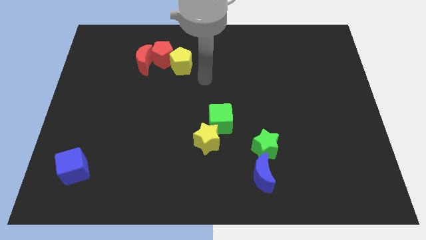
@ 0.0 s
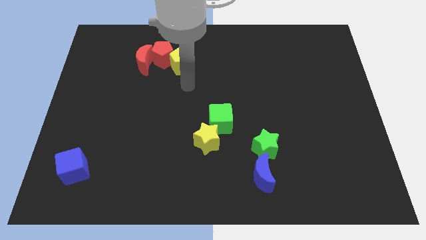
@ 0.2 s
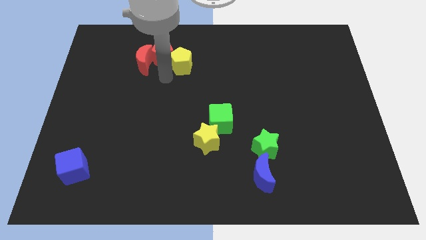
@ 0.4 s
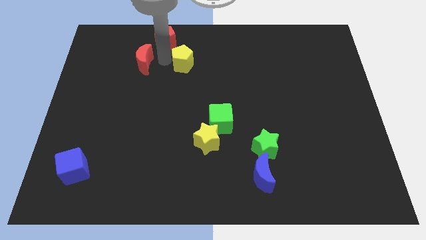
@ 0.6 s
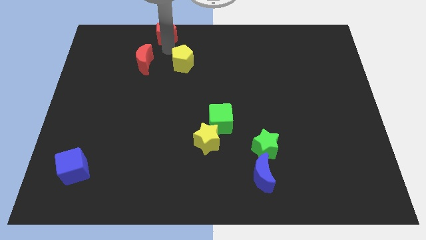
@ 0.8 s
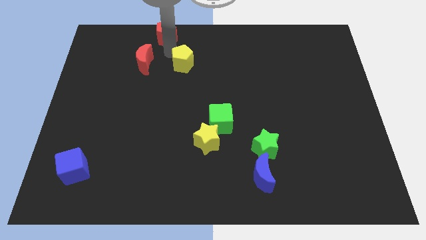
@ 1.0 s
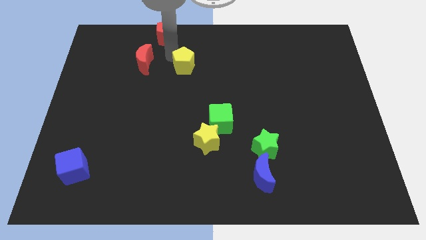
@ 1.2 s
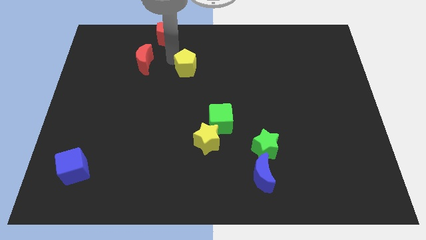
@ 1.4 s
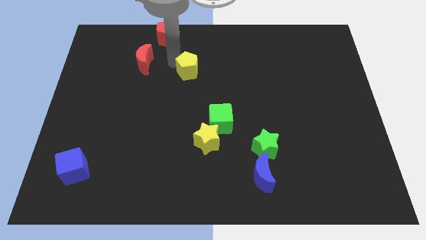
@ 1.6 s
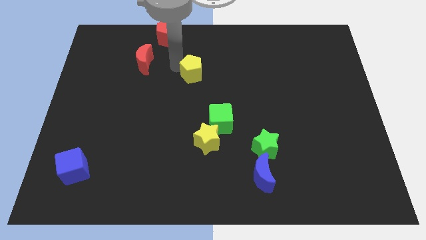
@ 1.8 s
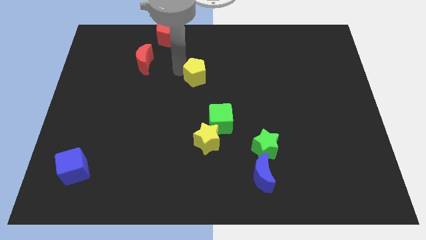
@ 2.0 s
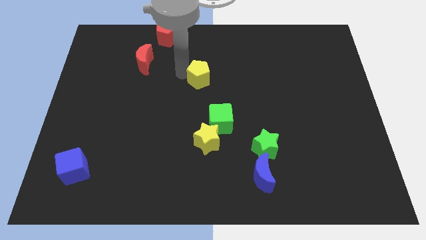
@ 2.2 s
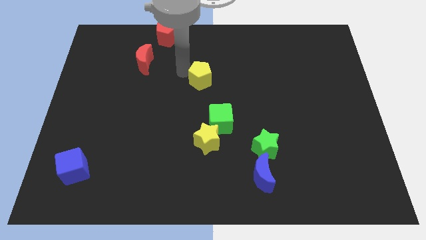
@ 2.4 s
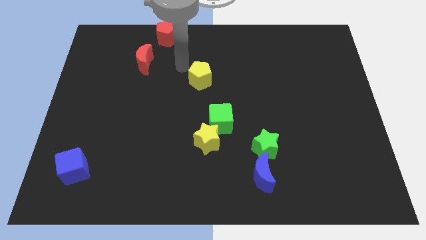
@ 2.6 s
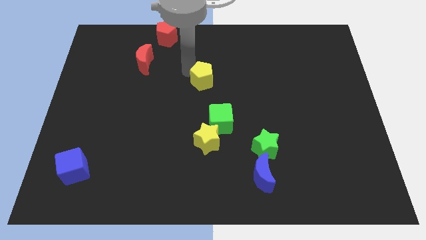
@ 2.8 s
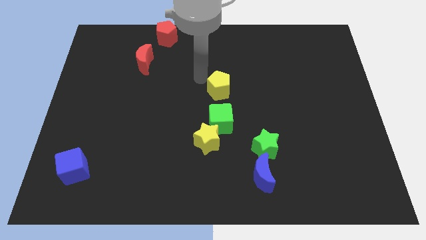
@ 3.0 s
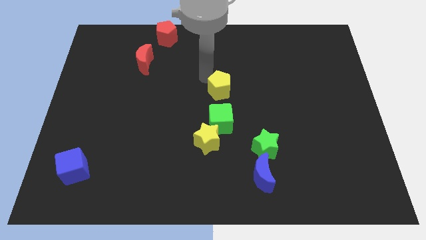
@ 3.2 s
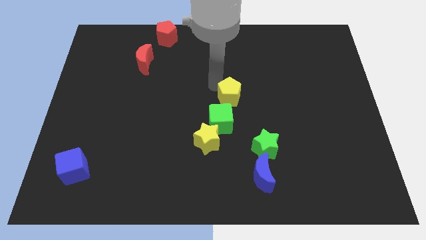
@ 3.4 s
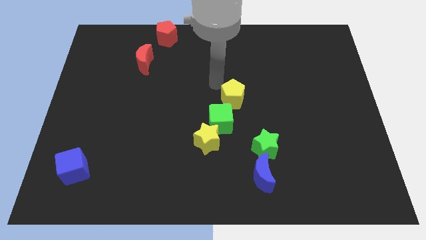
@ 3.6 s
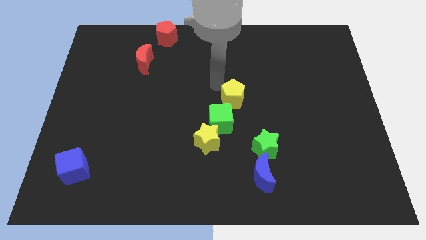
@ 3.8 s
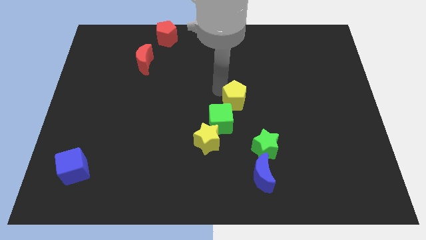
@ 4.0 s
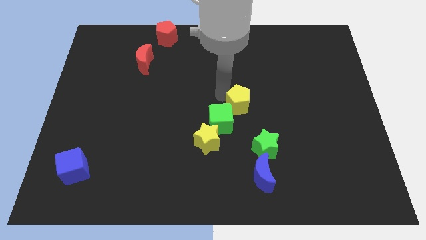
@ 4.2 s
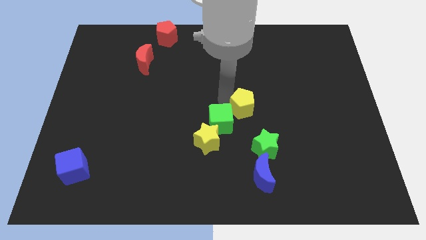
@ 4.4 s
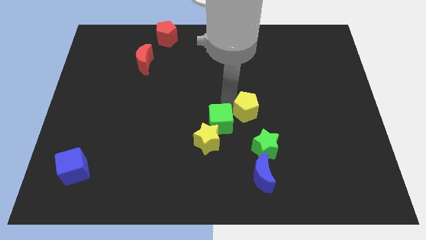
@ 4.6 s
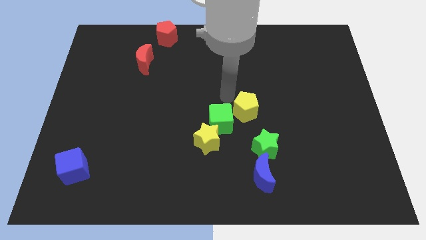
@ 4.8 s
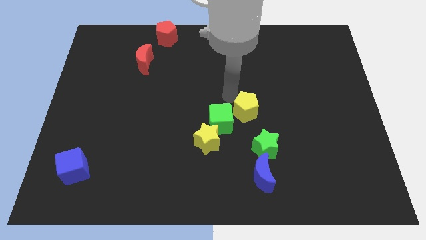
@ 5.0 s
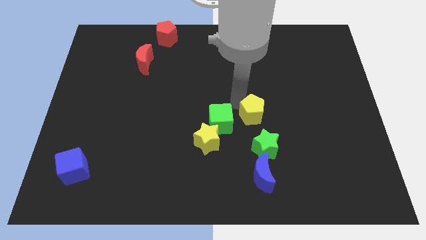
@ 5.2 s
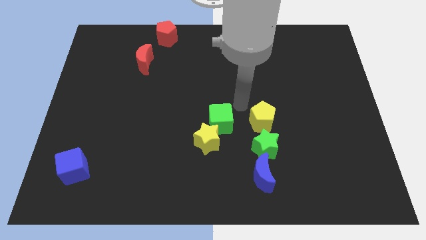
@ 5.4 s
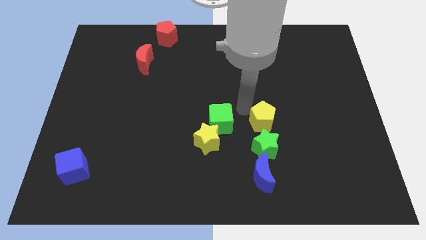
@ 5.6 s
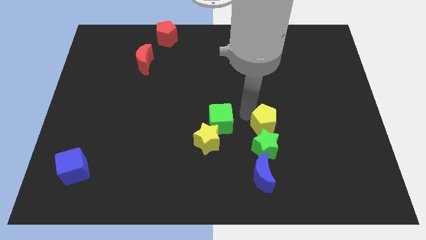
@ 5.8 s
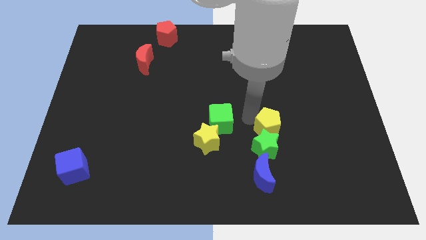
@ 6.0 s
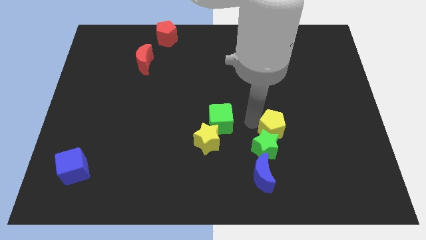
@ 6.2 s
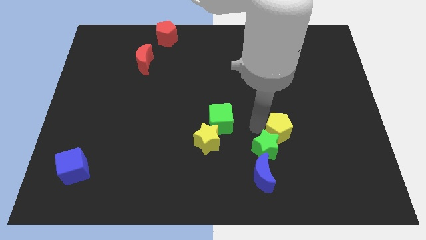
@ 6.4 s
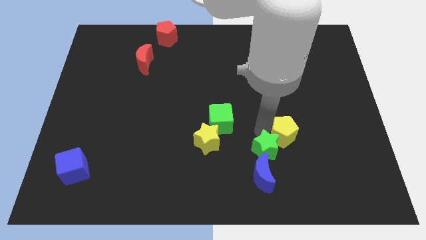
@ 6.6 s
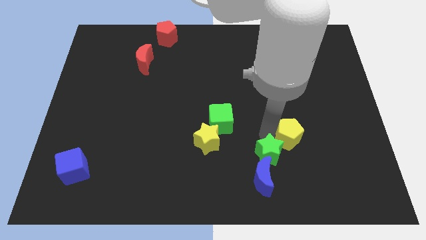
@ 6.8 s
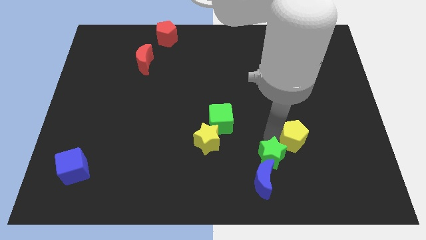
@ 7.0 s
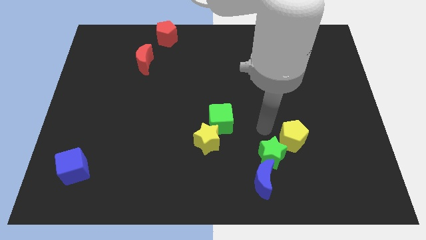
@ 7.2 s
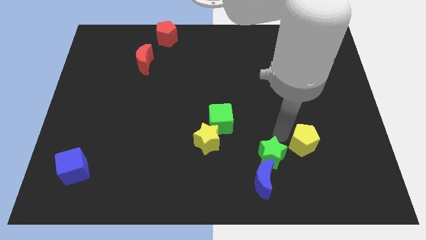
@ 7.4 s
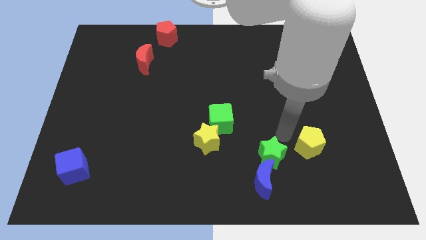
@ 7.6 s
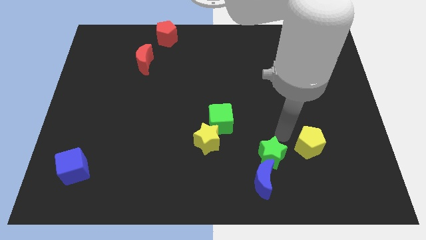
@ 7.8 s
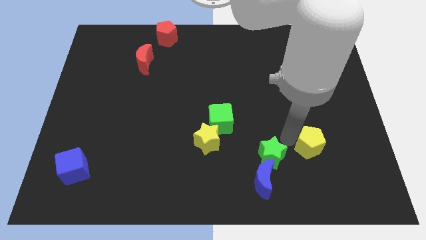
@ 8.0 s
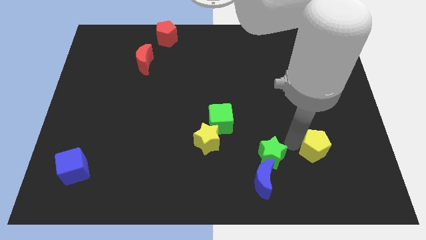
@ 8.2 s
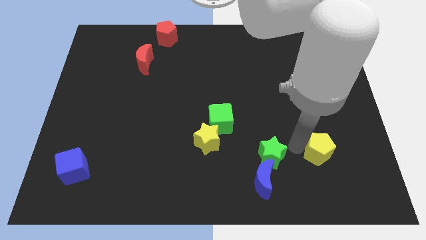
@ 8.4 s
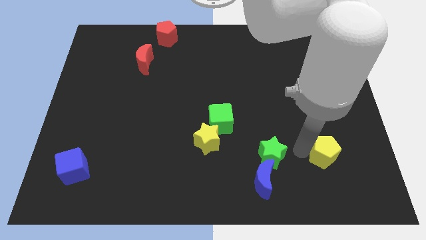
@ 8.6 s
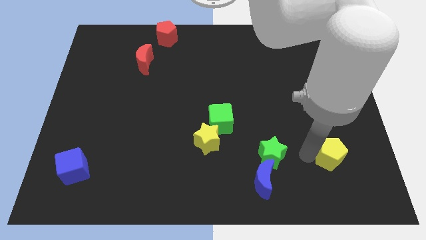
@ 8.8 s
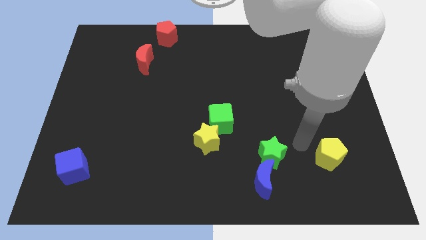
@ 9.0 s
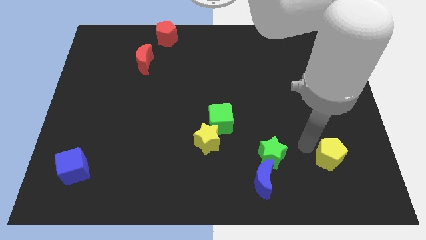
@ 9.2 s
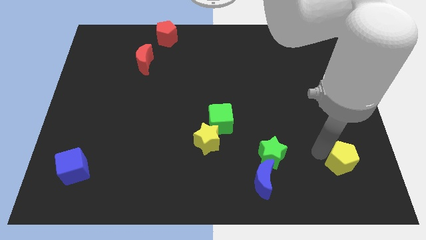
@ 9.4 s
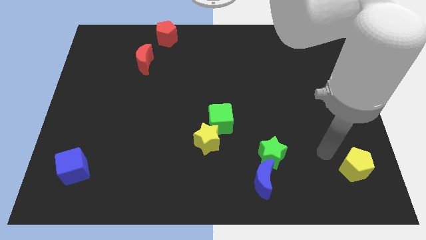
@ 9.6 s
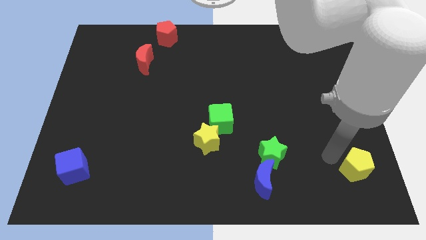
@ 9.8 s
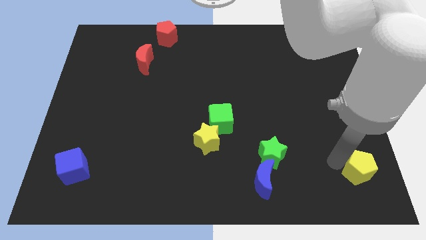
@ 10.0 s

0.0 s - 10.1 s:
move the yellow pentagon to the lower right corner

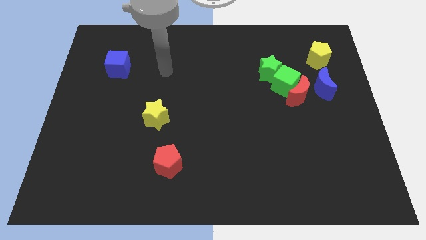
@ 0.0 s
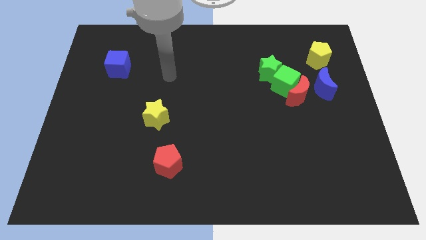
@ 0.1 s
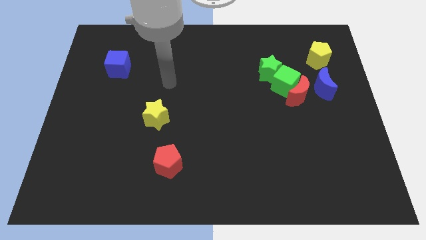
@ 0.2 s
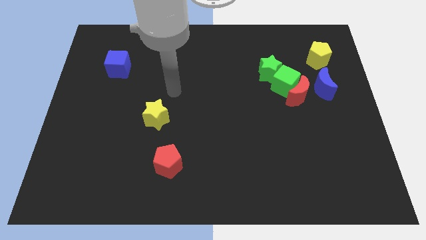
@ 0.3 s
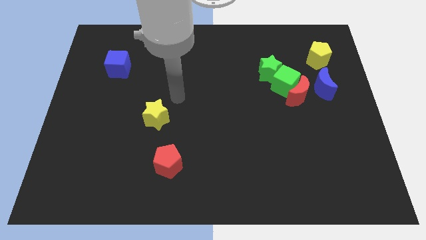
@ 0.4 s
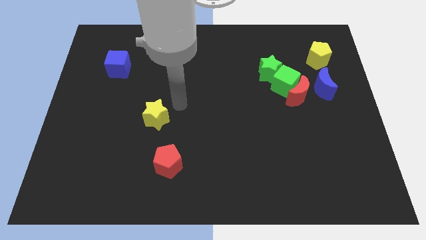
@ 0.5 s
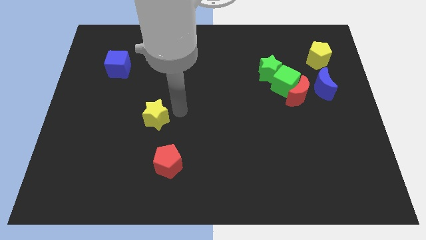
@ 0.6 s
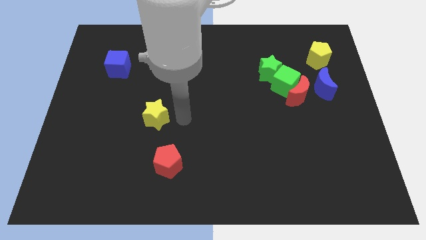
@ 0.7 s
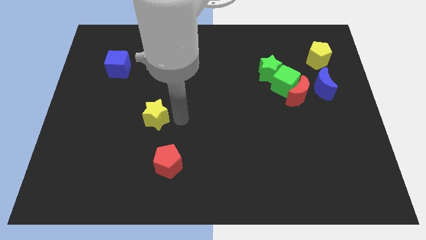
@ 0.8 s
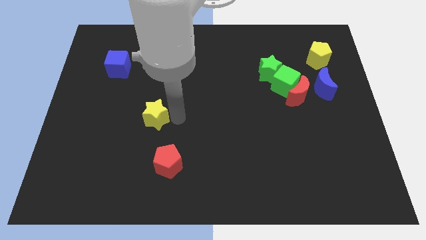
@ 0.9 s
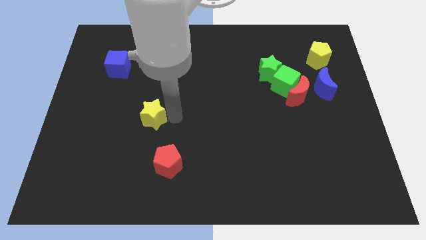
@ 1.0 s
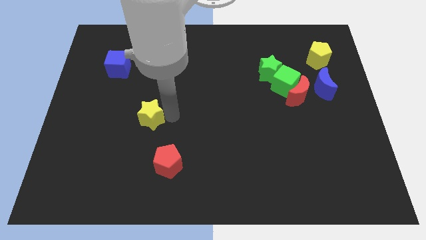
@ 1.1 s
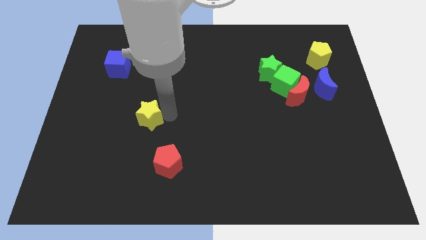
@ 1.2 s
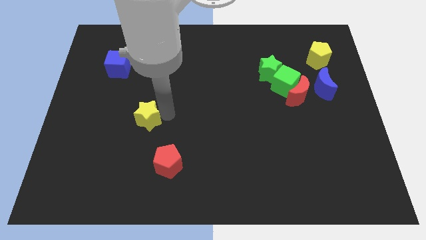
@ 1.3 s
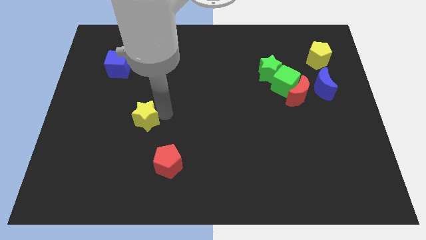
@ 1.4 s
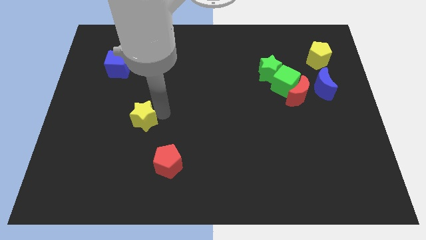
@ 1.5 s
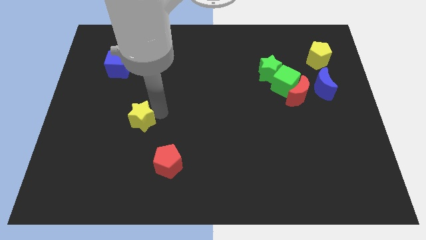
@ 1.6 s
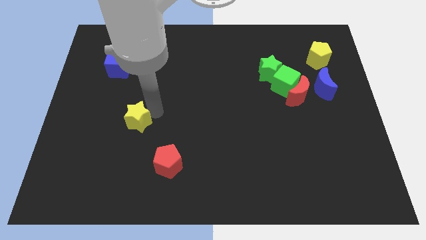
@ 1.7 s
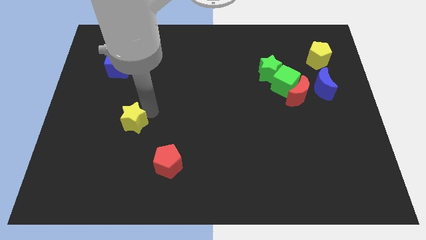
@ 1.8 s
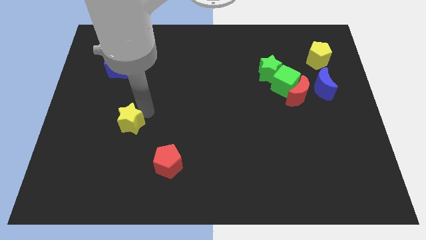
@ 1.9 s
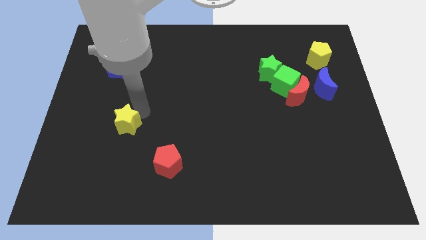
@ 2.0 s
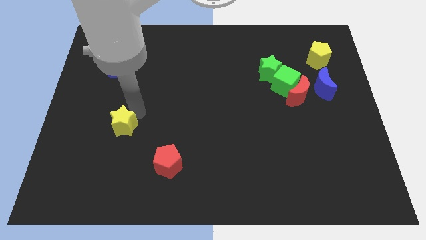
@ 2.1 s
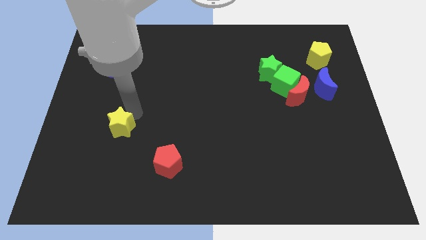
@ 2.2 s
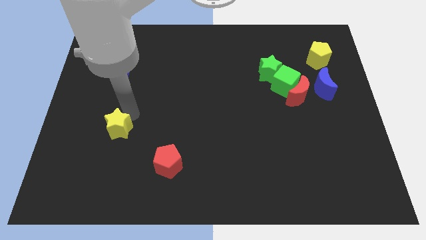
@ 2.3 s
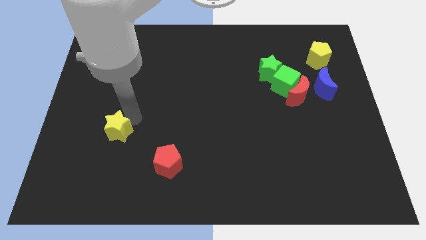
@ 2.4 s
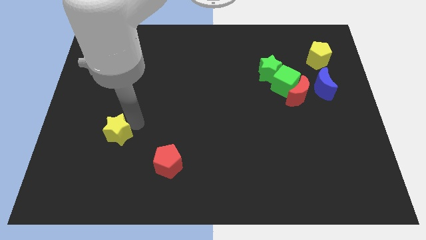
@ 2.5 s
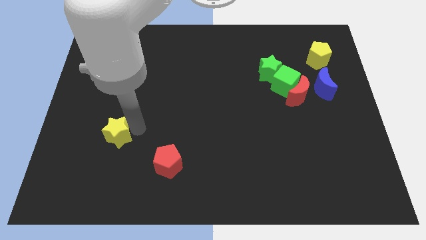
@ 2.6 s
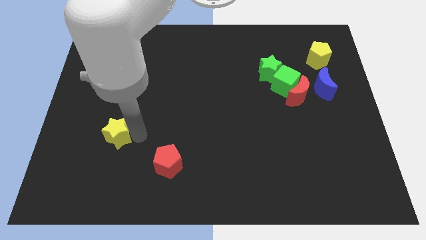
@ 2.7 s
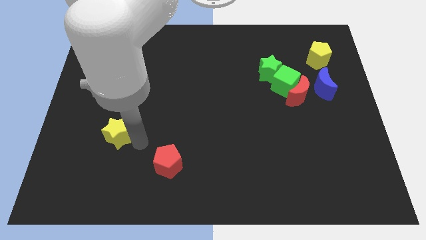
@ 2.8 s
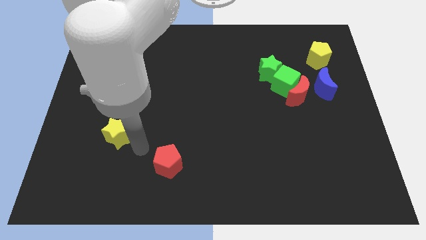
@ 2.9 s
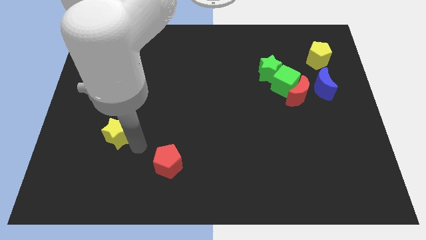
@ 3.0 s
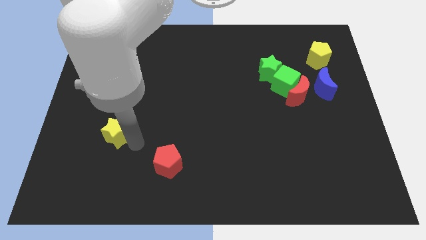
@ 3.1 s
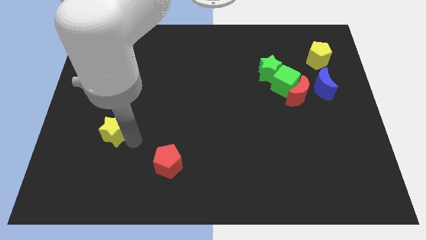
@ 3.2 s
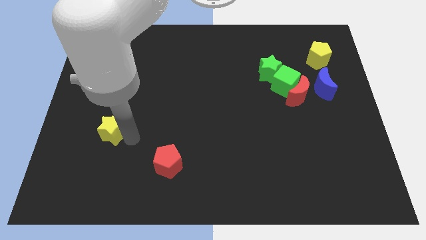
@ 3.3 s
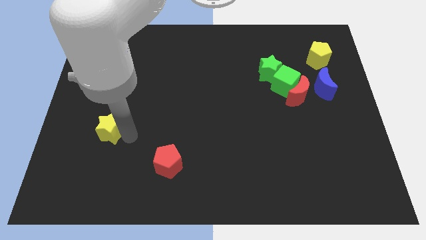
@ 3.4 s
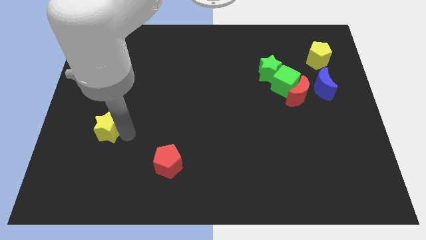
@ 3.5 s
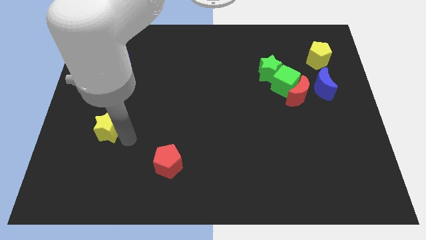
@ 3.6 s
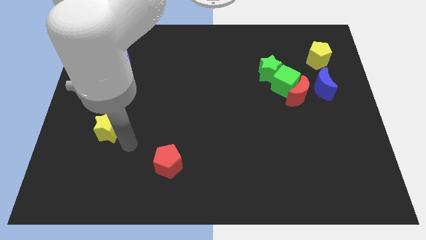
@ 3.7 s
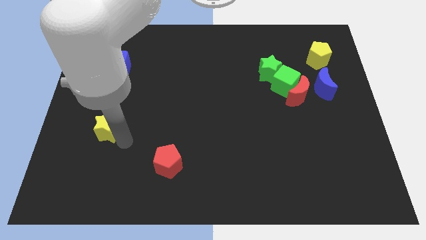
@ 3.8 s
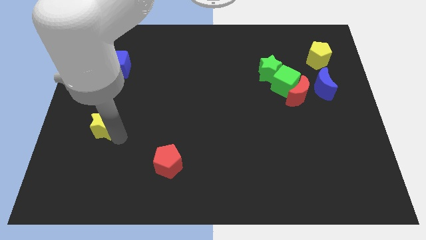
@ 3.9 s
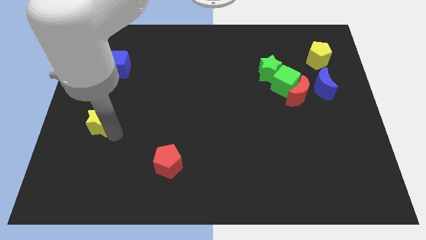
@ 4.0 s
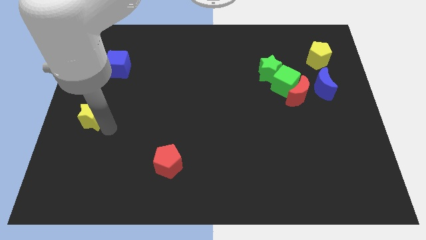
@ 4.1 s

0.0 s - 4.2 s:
move the yellow star to the left side of the board
